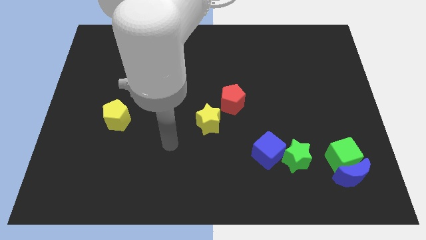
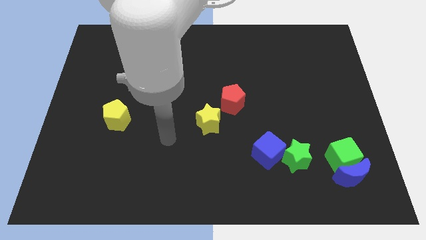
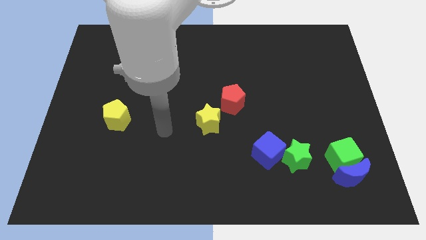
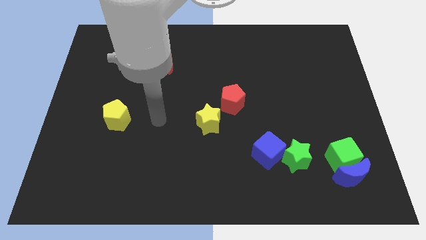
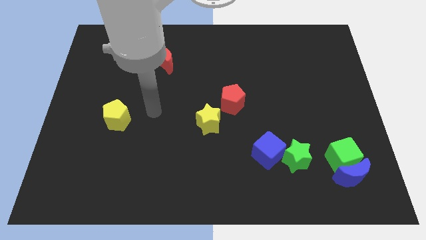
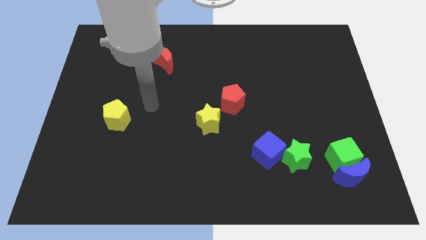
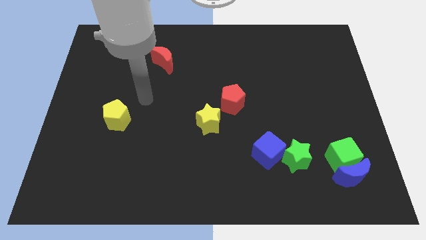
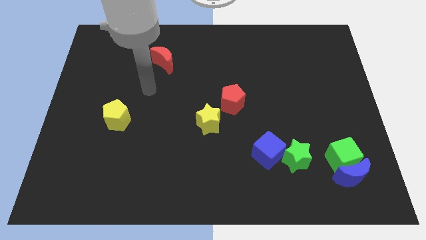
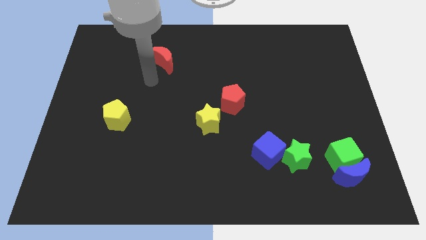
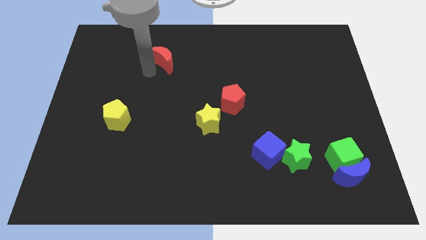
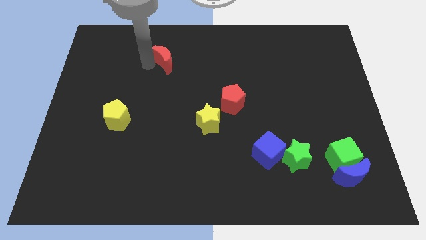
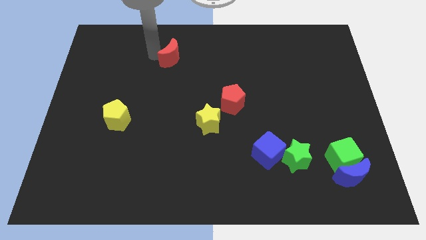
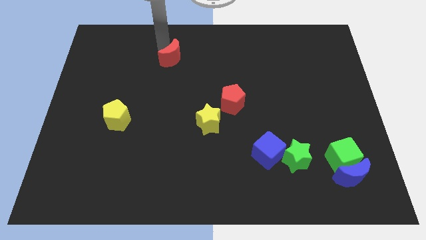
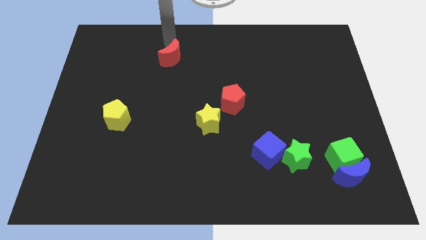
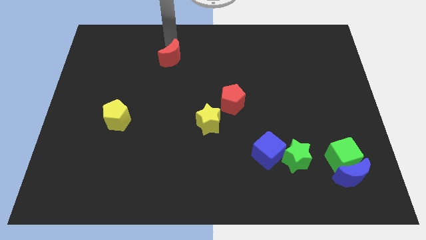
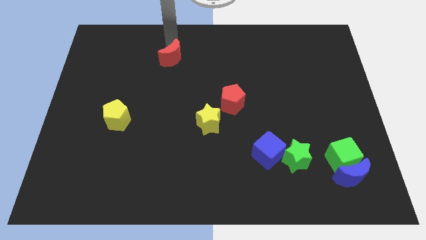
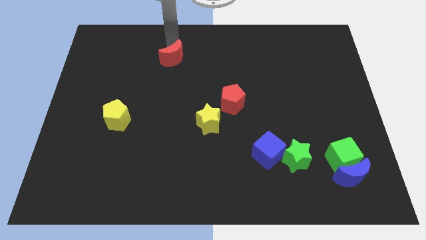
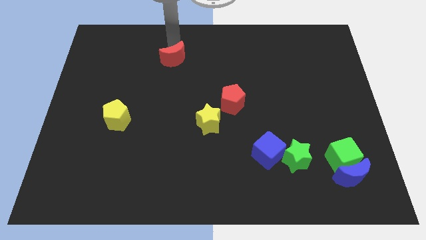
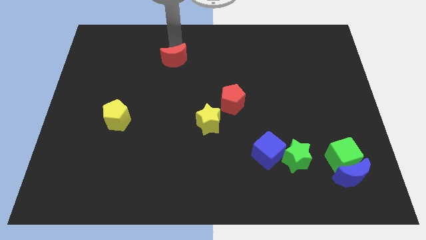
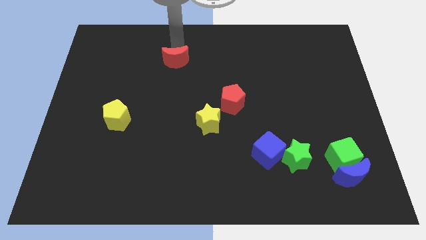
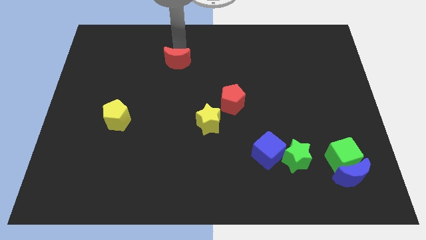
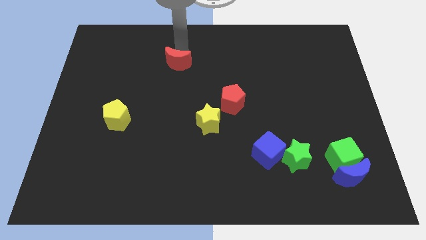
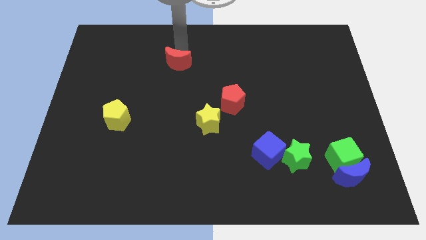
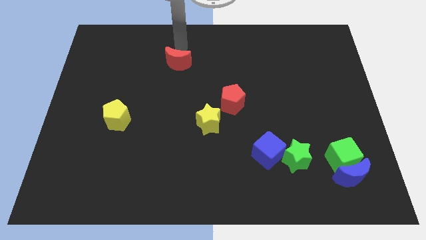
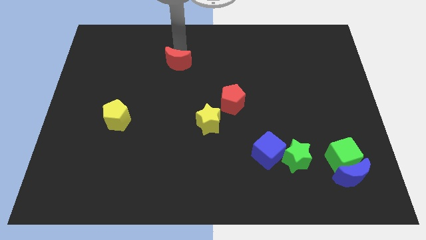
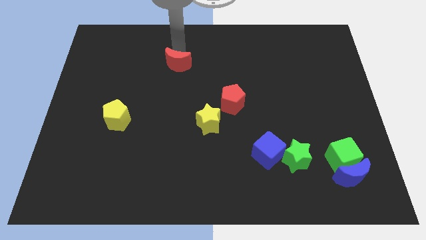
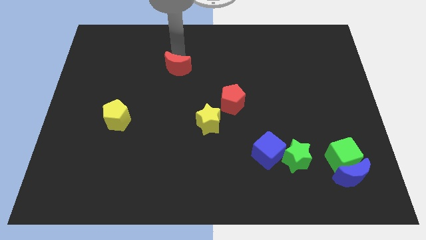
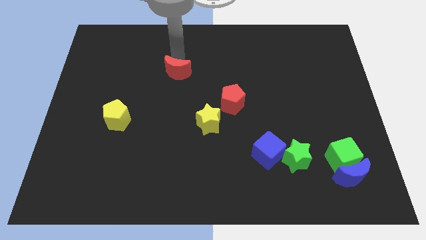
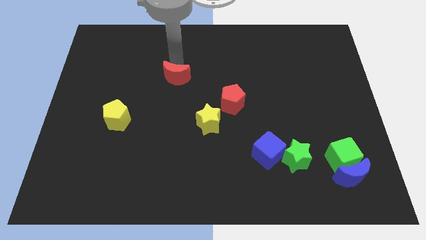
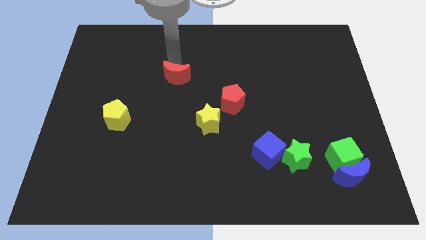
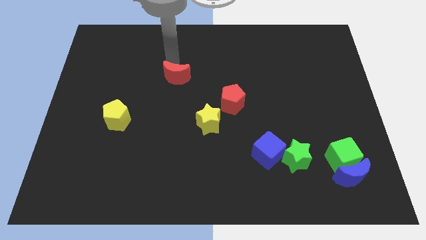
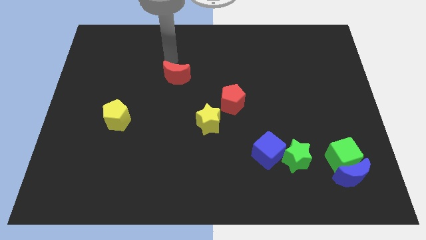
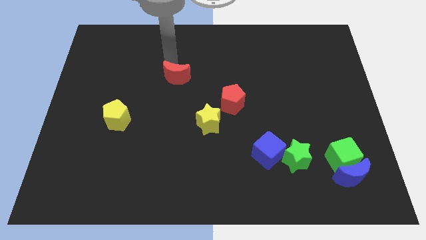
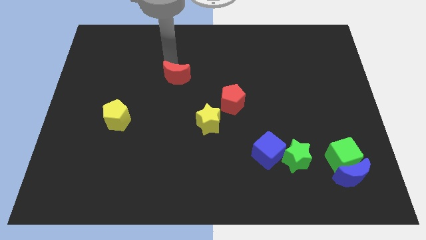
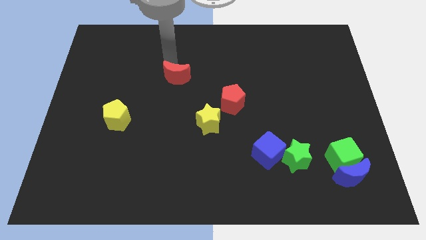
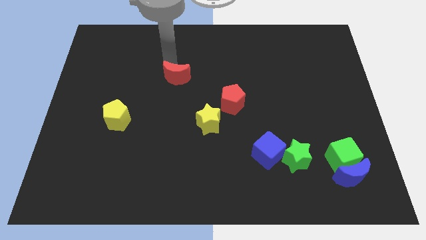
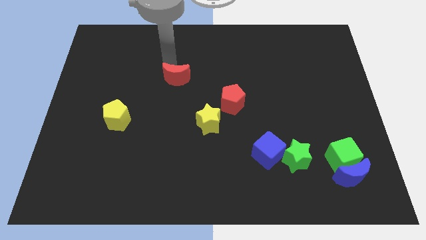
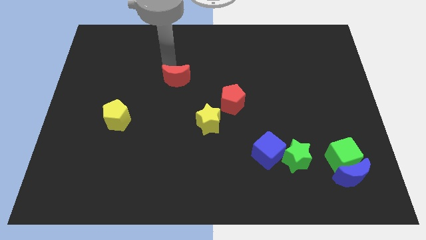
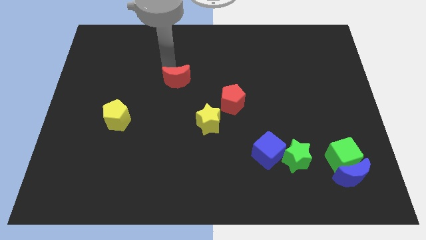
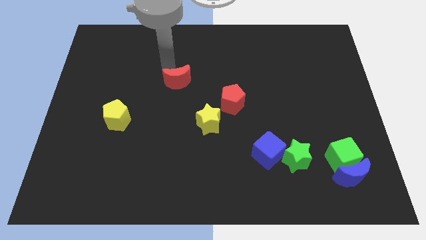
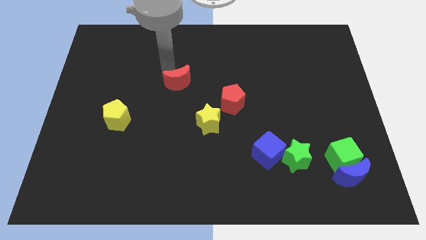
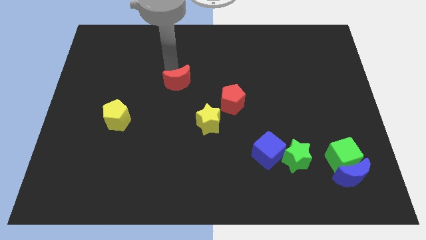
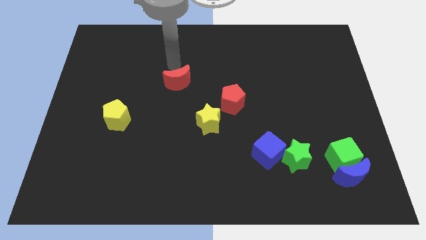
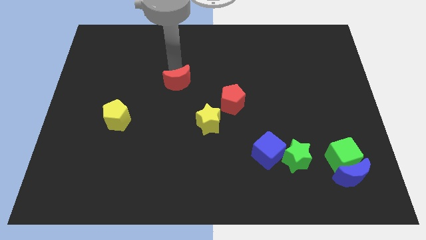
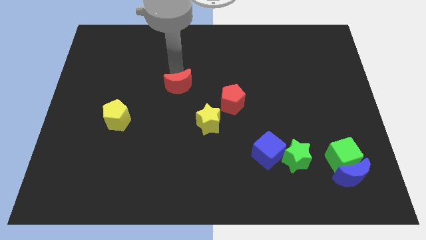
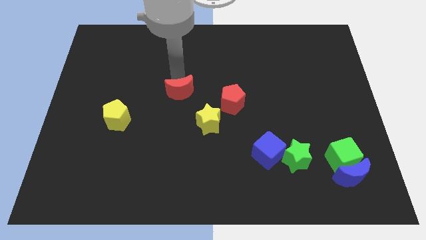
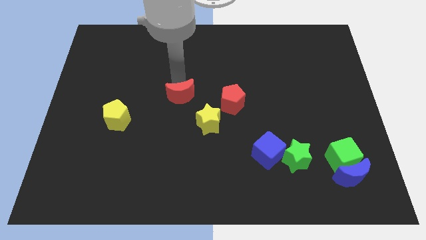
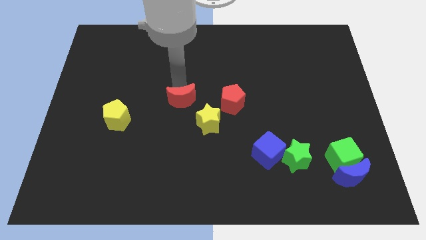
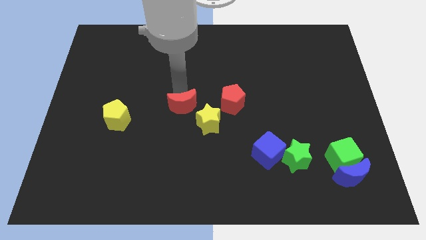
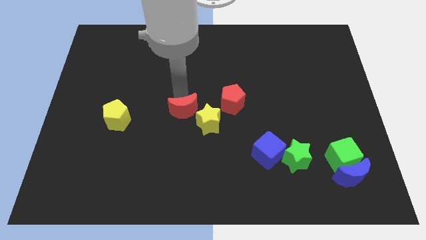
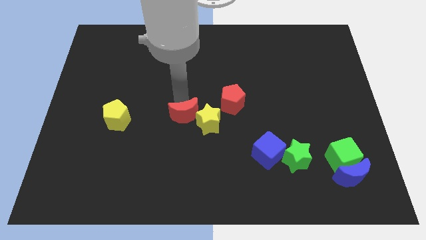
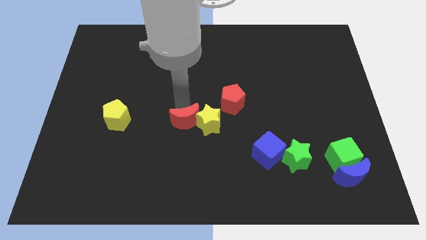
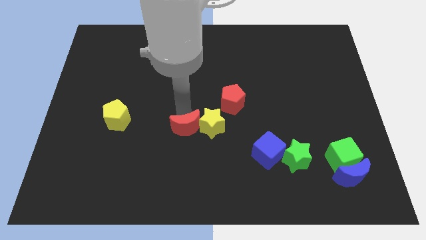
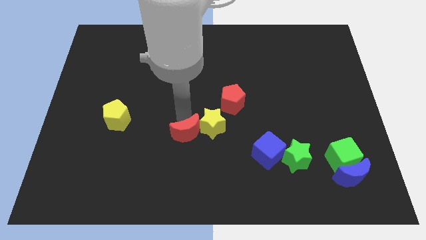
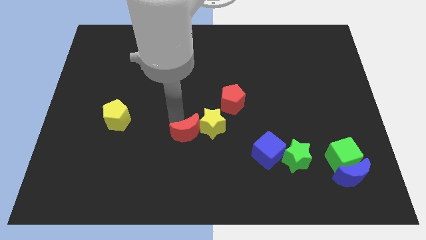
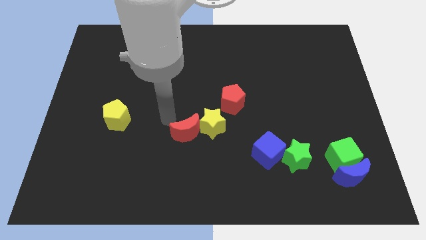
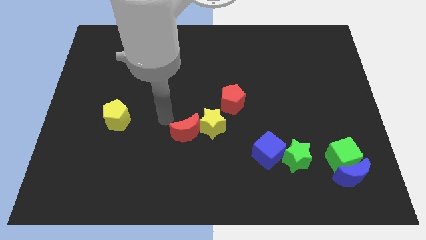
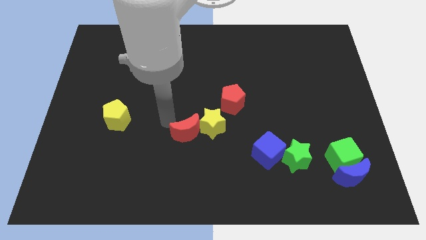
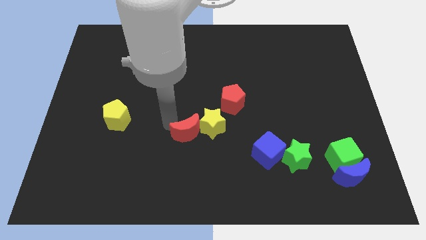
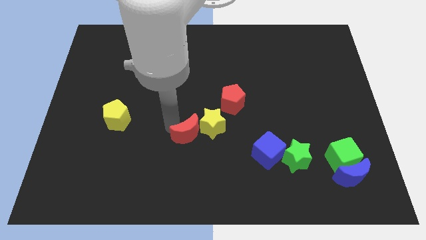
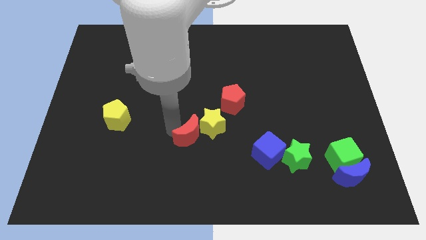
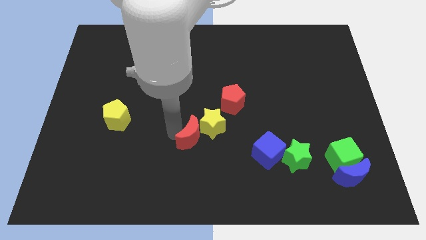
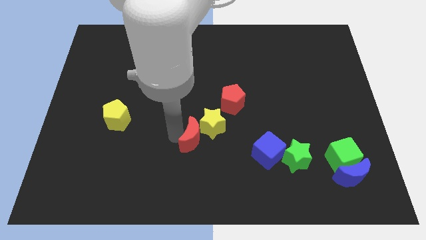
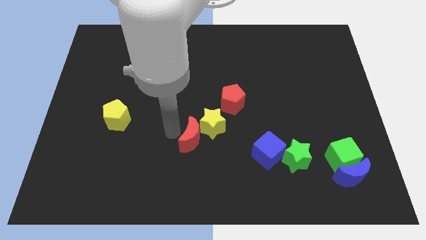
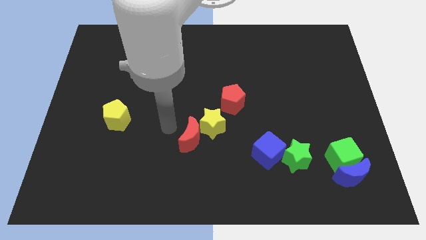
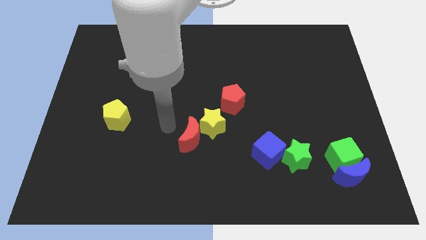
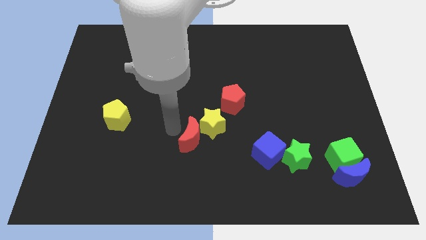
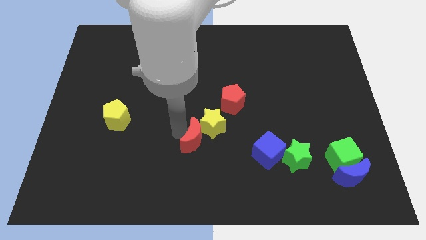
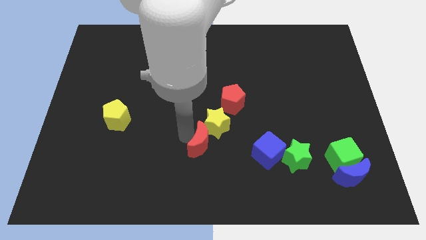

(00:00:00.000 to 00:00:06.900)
push the red moon left of the blue cube

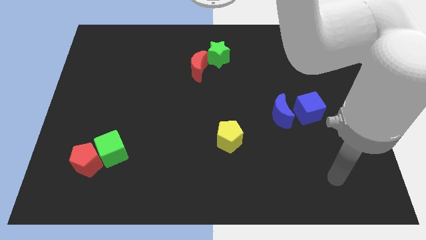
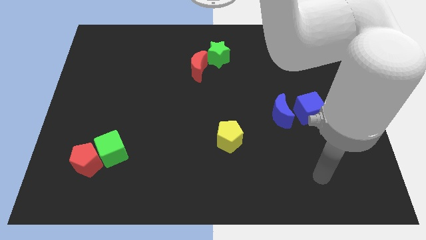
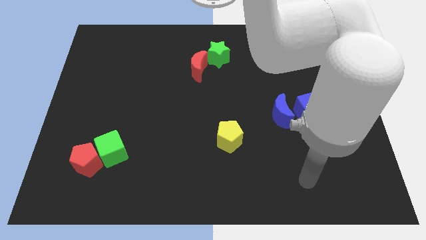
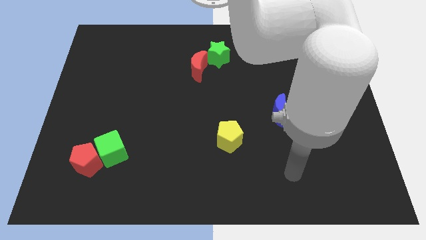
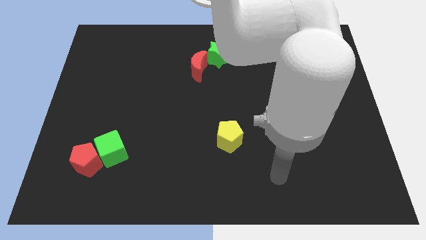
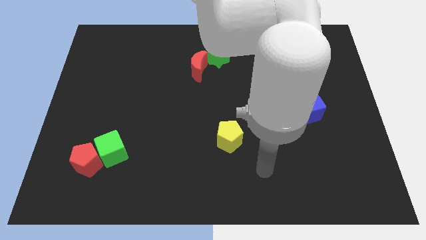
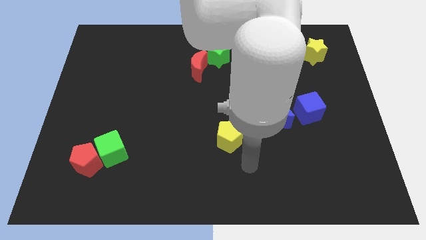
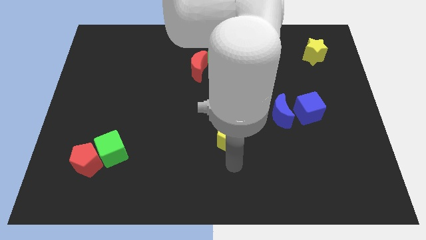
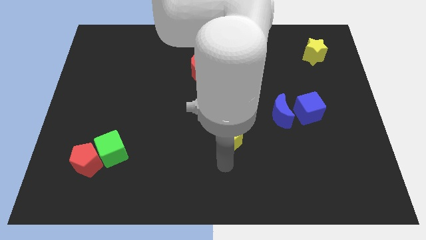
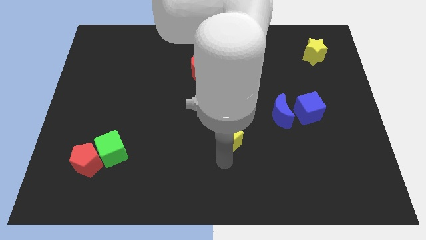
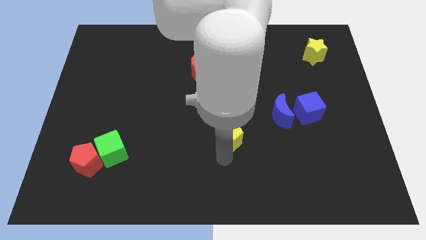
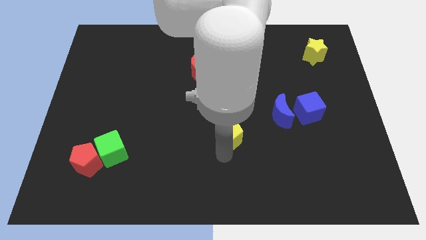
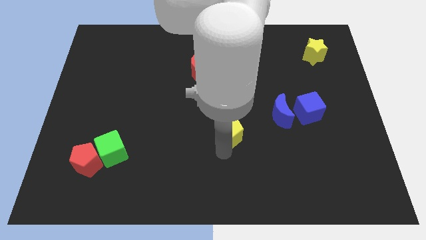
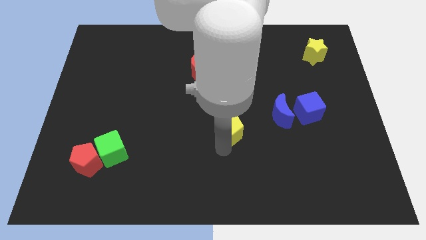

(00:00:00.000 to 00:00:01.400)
move the yellow pentagon left of the blue moon
